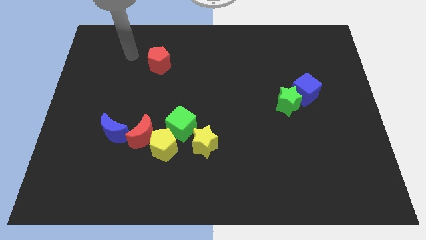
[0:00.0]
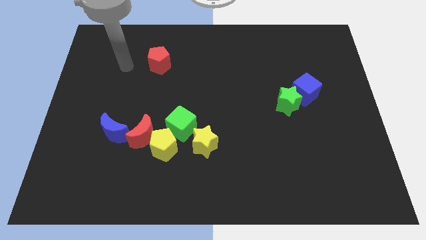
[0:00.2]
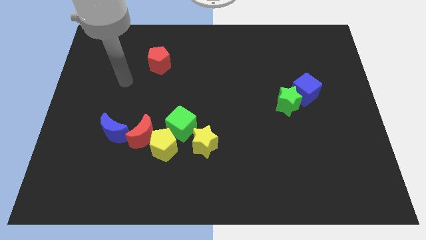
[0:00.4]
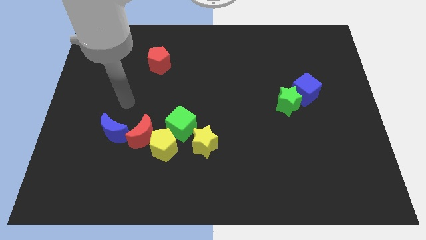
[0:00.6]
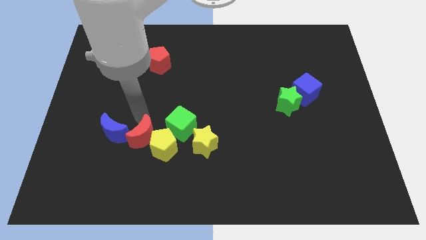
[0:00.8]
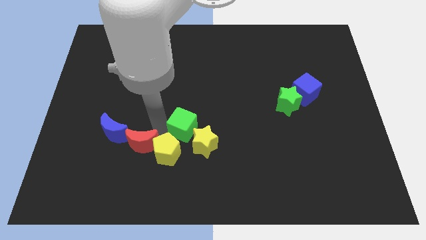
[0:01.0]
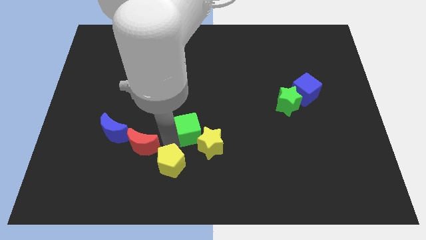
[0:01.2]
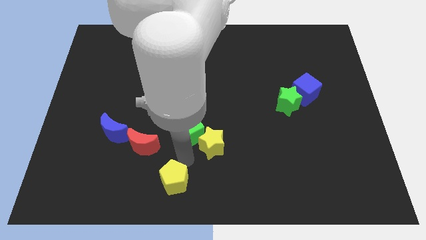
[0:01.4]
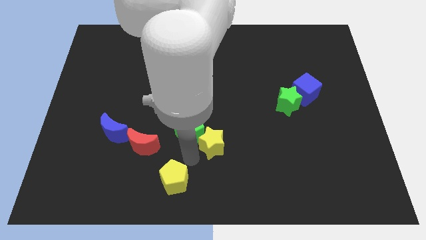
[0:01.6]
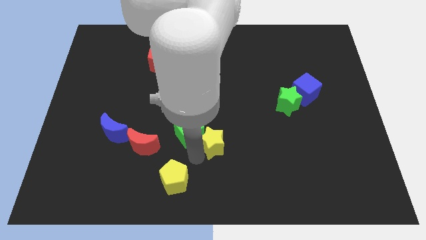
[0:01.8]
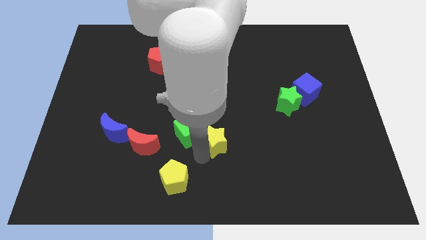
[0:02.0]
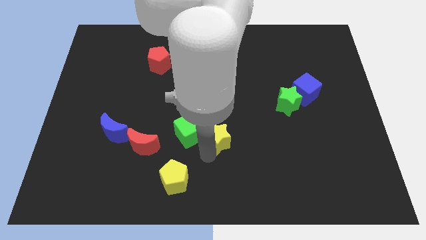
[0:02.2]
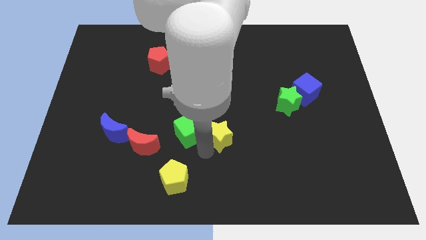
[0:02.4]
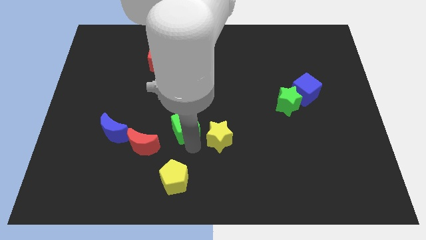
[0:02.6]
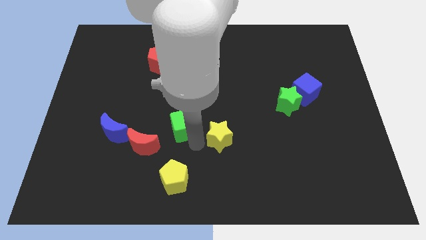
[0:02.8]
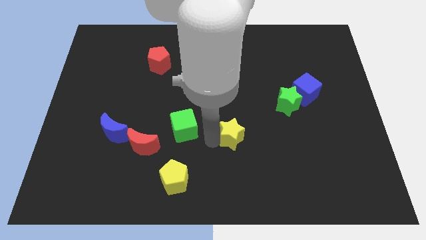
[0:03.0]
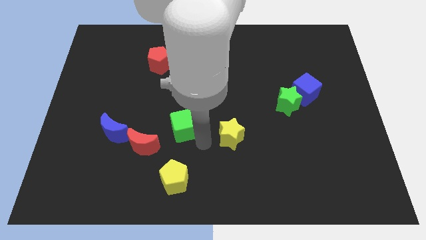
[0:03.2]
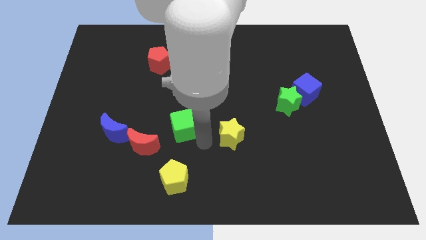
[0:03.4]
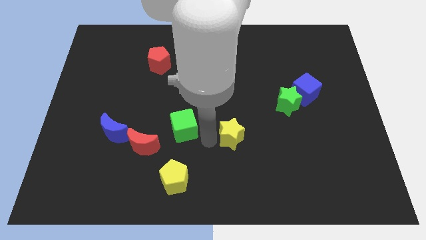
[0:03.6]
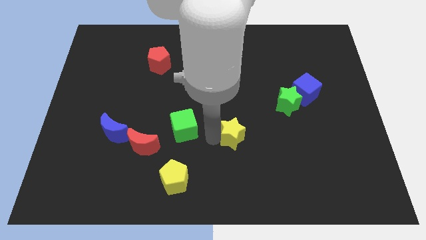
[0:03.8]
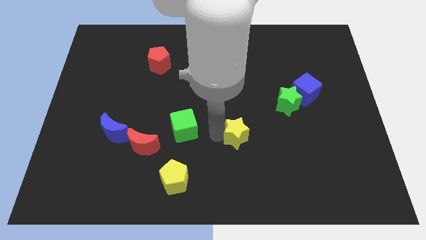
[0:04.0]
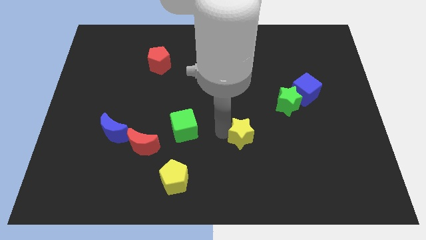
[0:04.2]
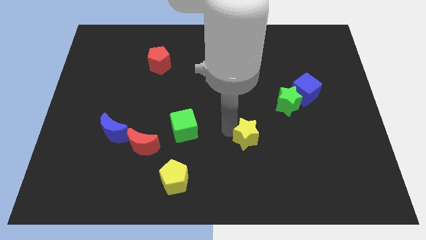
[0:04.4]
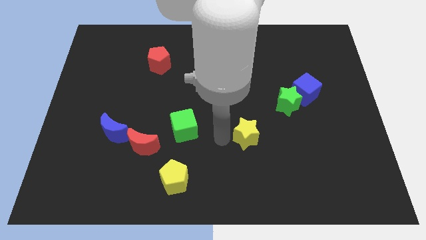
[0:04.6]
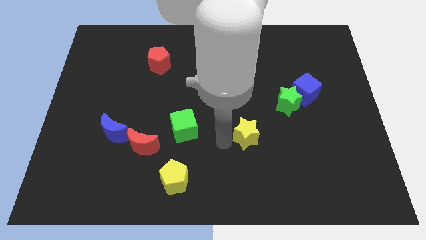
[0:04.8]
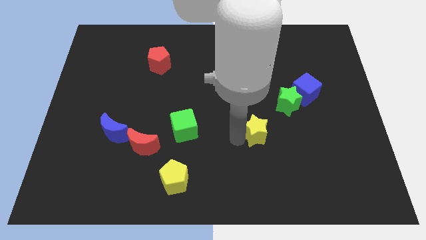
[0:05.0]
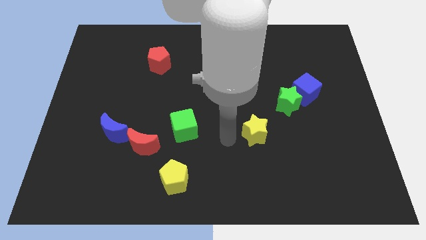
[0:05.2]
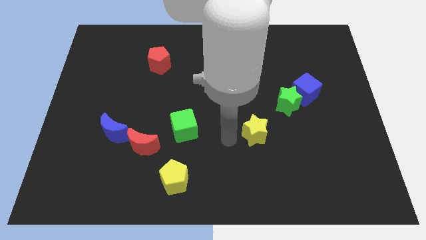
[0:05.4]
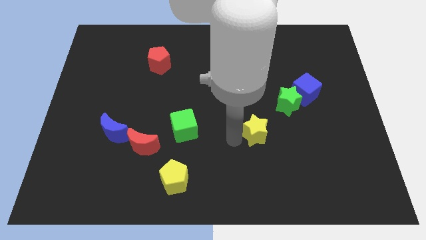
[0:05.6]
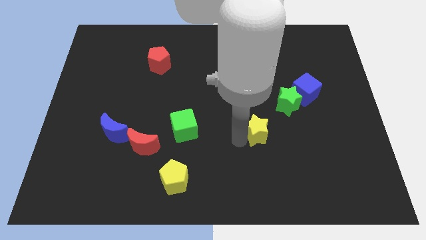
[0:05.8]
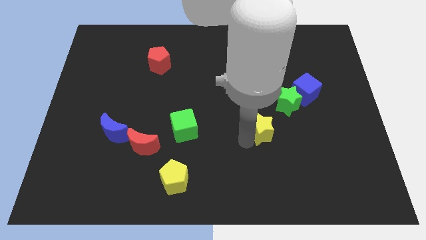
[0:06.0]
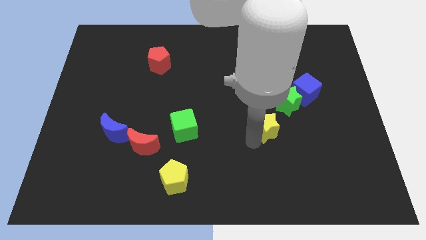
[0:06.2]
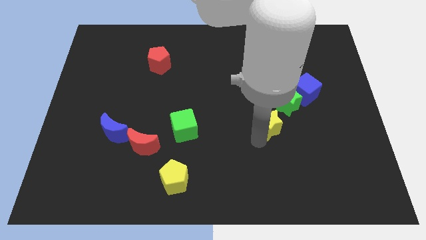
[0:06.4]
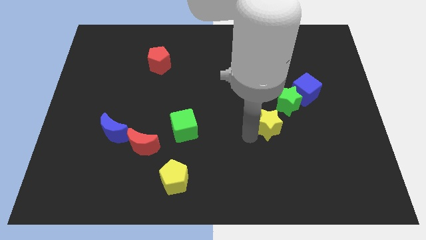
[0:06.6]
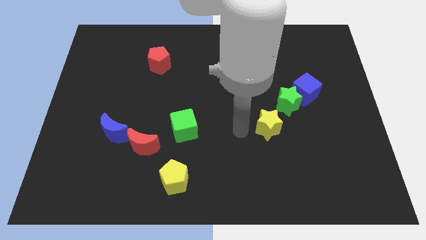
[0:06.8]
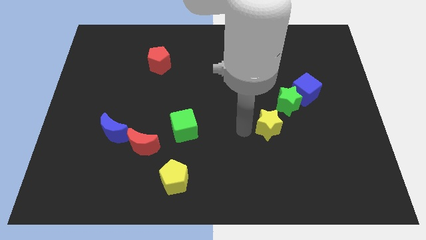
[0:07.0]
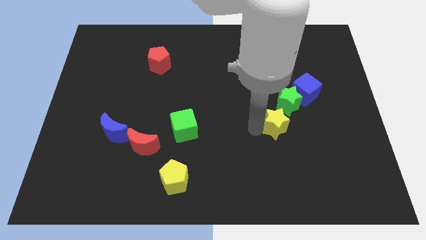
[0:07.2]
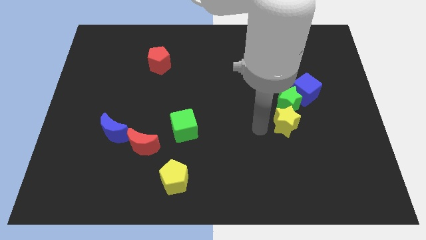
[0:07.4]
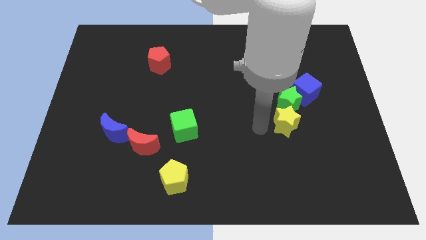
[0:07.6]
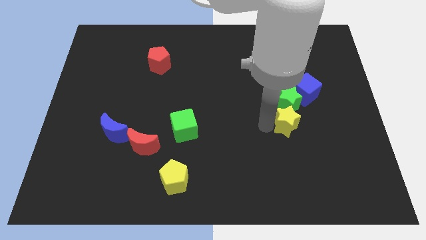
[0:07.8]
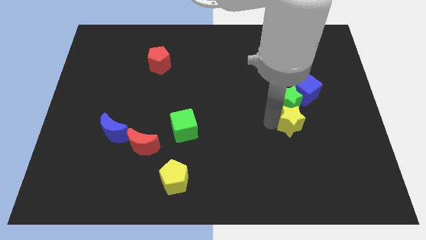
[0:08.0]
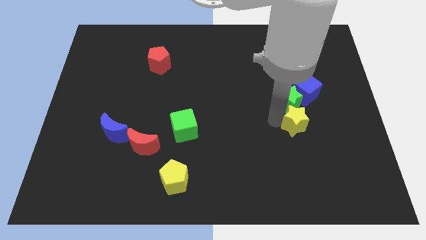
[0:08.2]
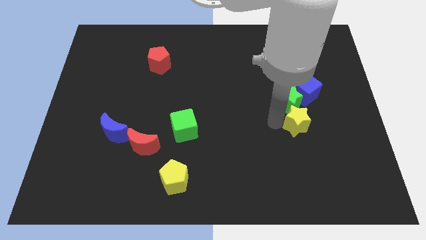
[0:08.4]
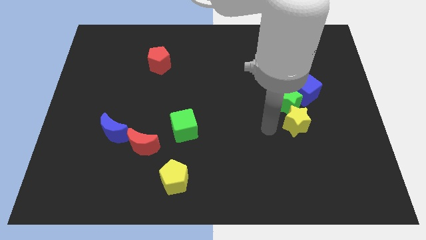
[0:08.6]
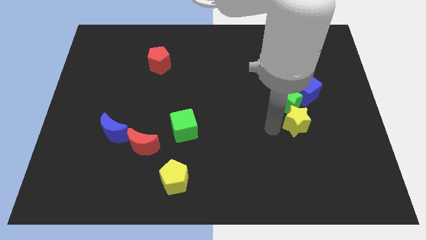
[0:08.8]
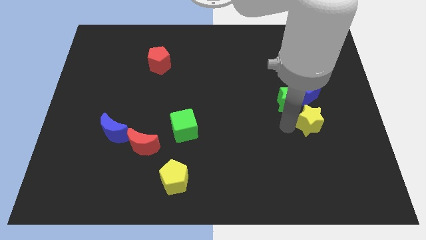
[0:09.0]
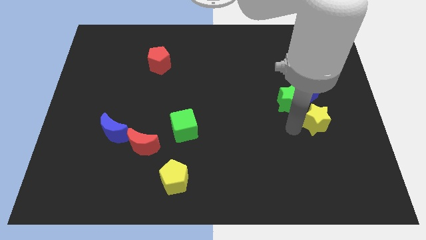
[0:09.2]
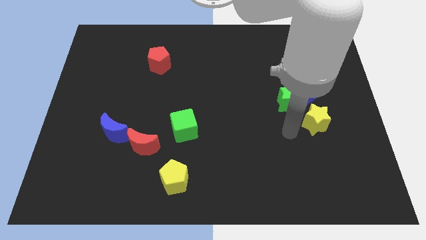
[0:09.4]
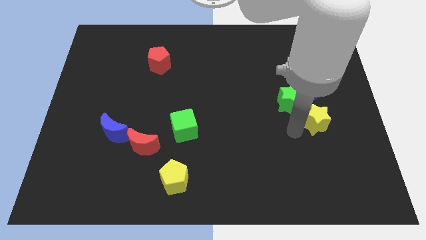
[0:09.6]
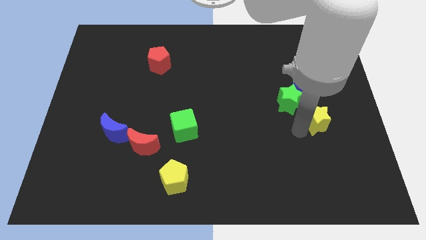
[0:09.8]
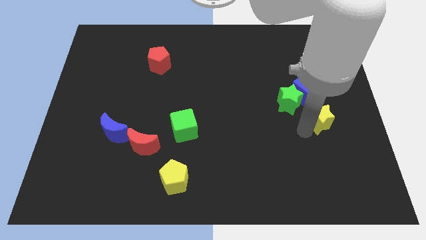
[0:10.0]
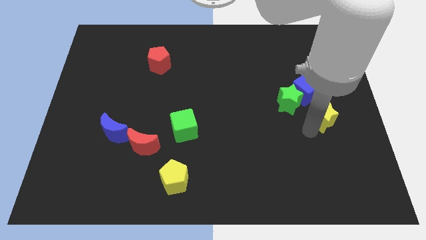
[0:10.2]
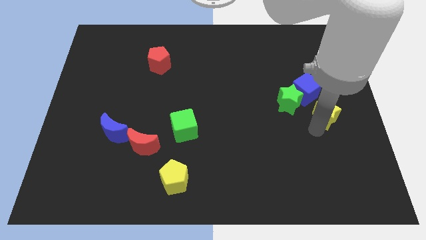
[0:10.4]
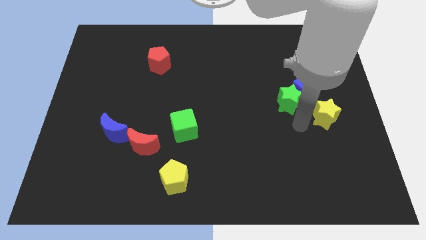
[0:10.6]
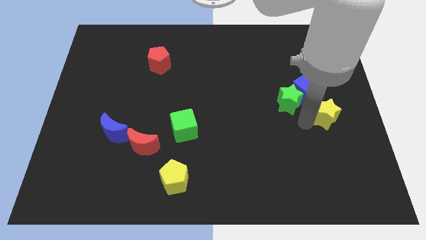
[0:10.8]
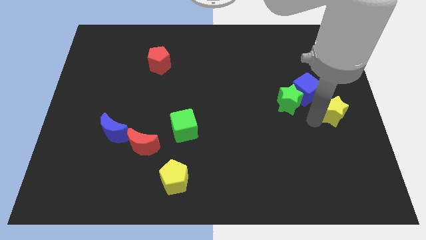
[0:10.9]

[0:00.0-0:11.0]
put the yellow star to the right side
